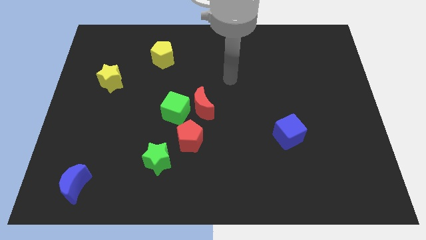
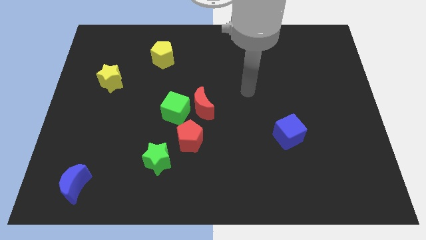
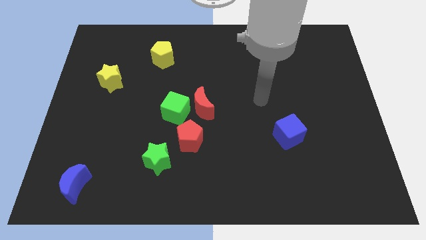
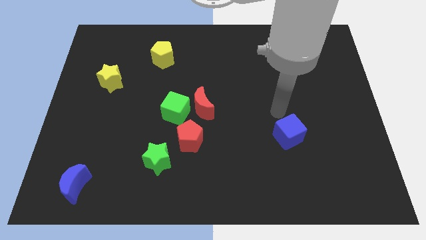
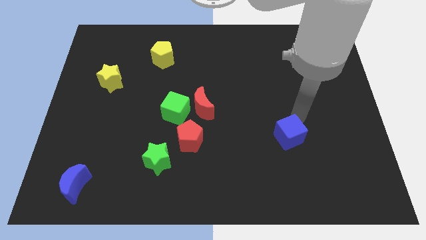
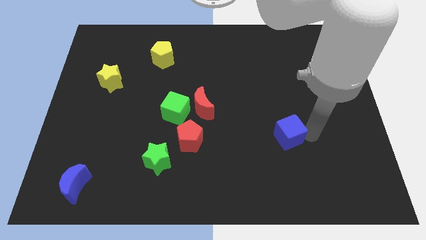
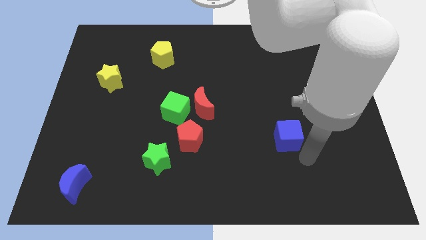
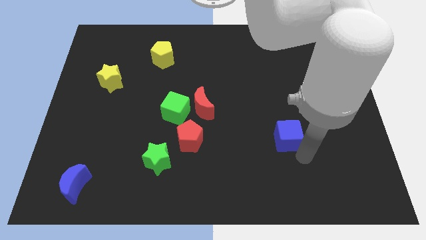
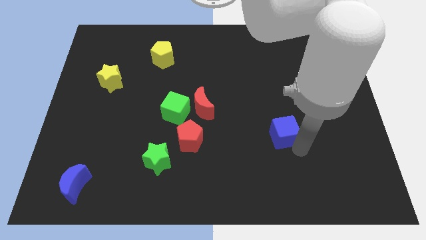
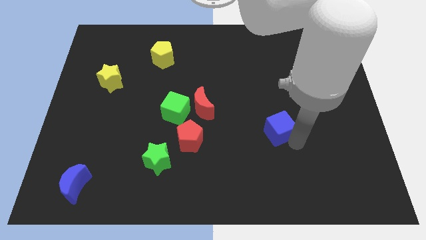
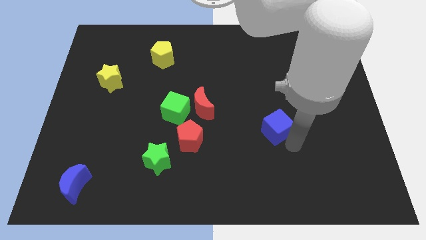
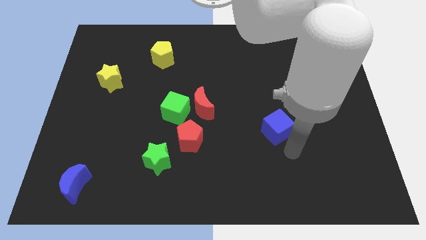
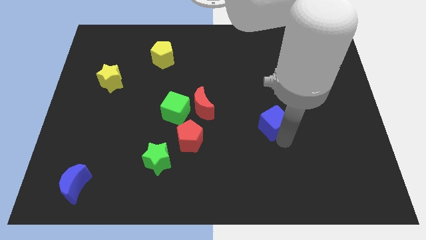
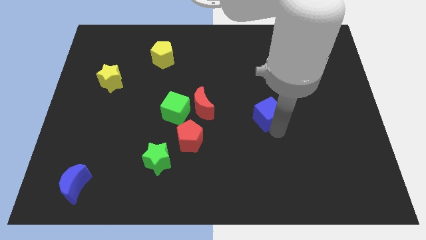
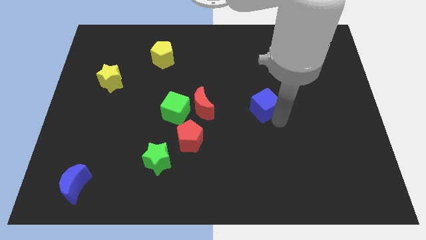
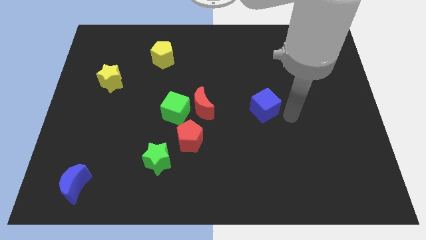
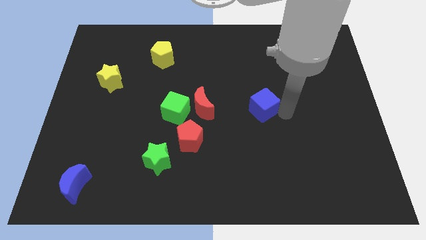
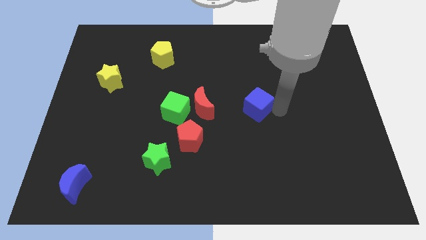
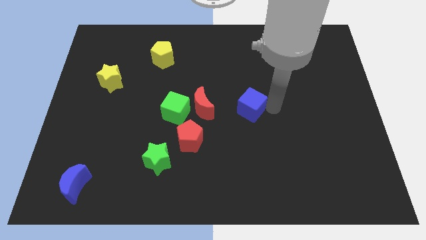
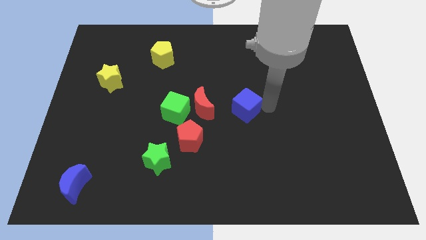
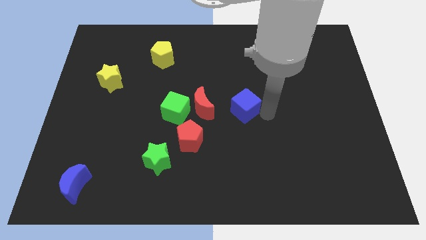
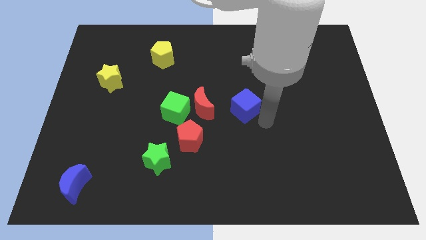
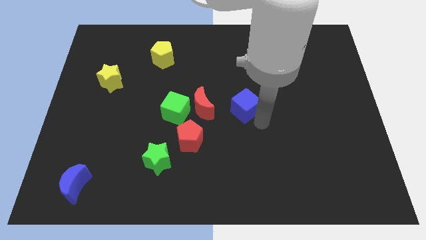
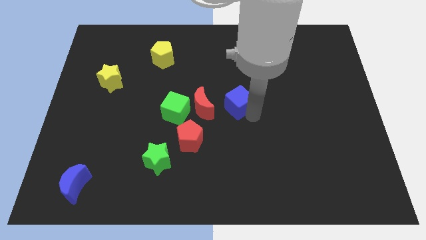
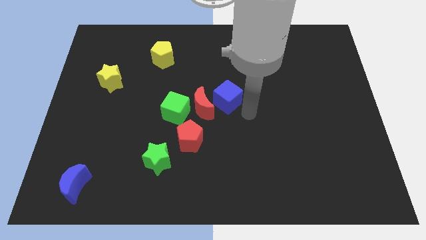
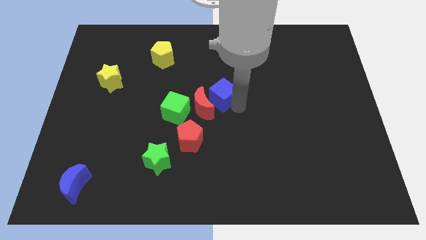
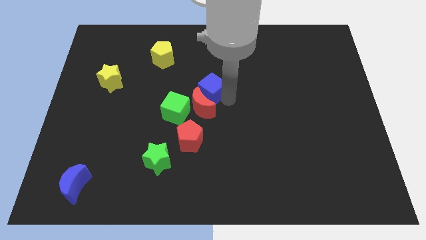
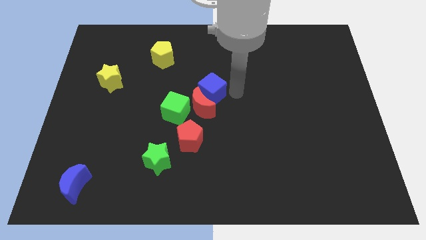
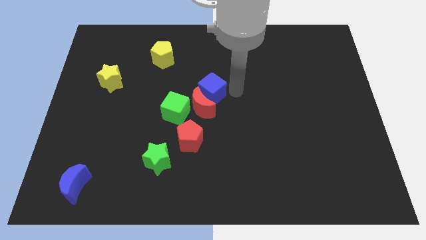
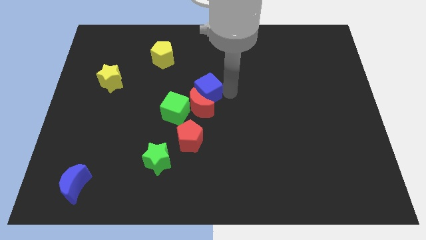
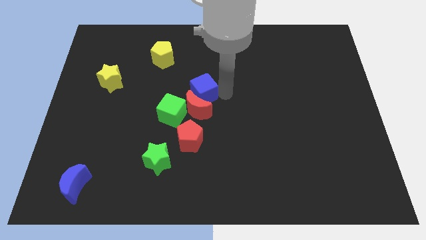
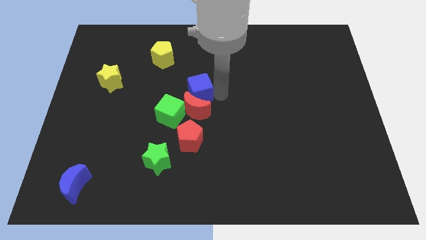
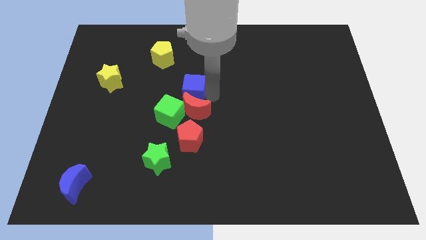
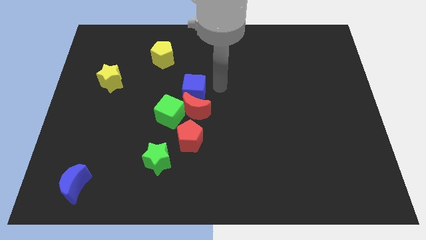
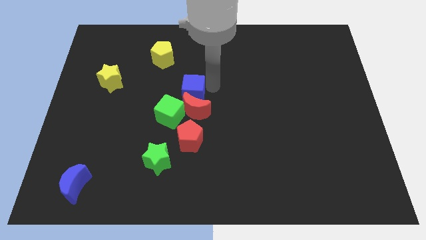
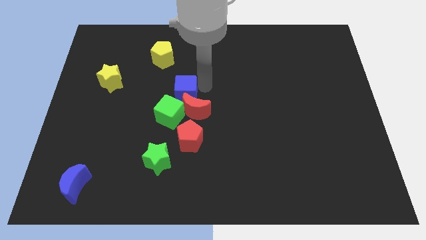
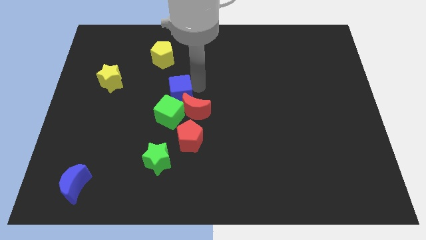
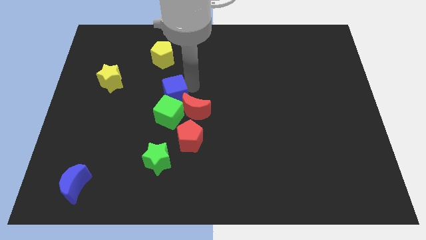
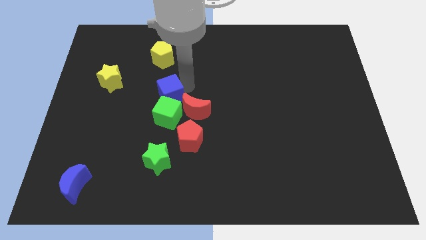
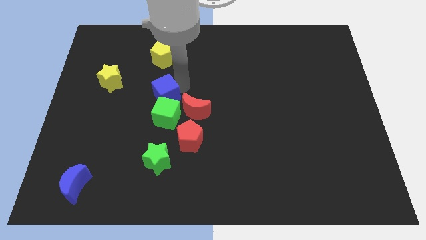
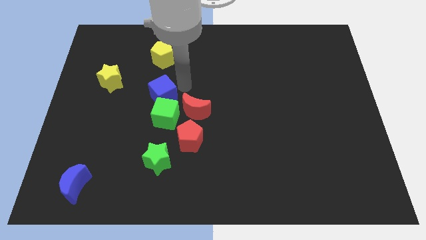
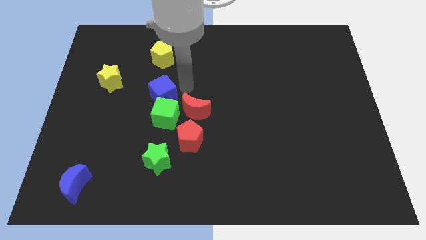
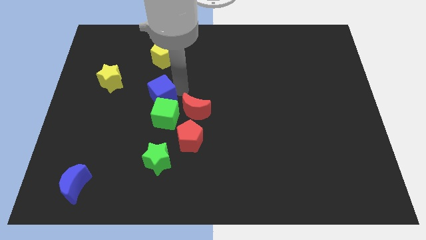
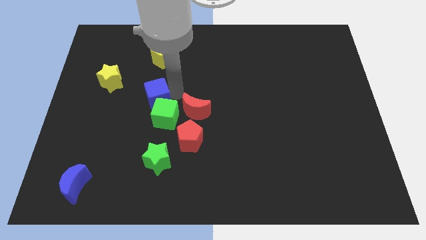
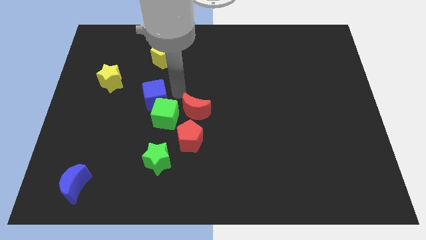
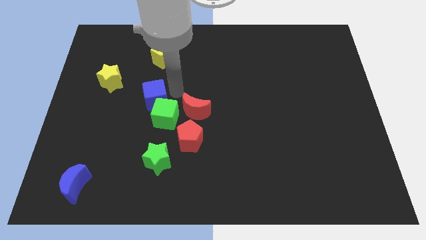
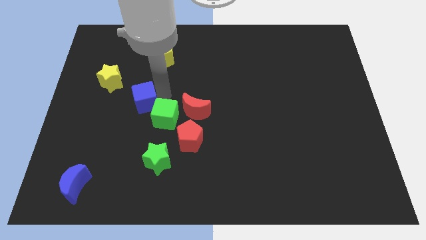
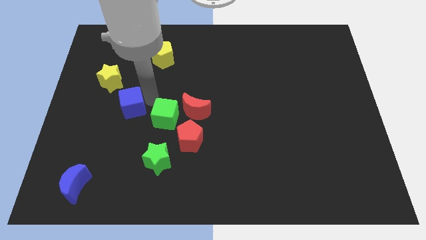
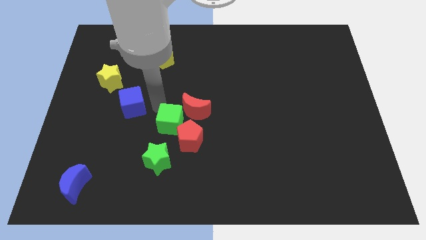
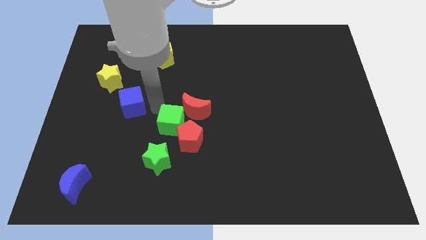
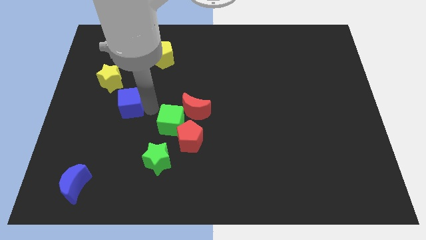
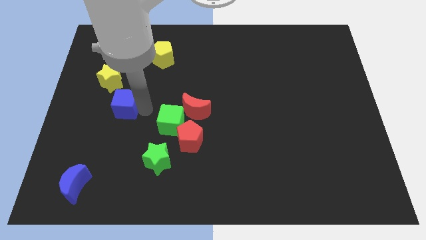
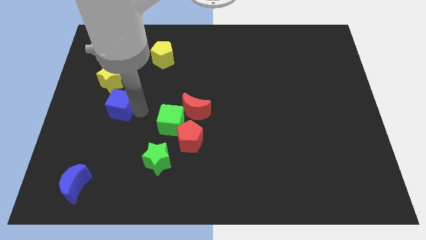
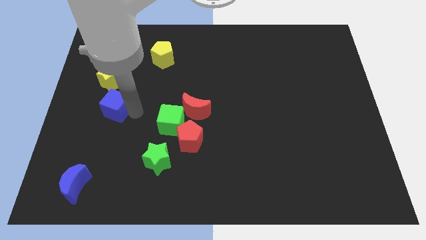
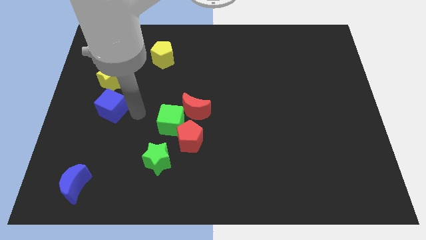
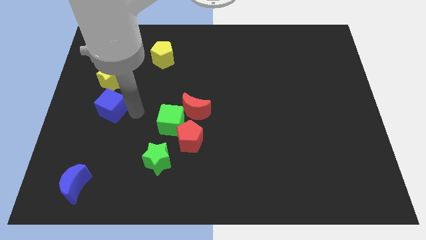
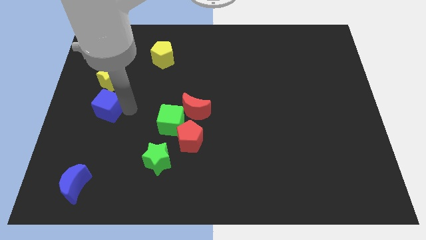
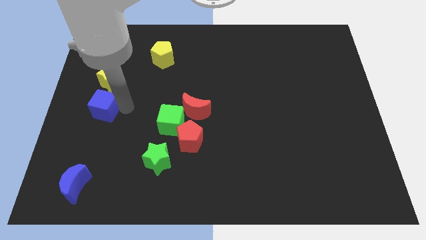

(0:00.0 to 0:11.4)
push the blue cube to the center left
